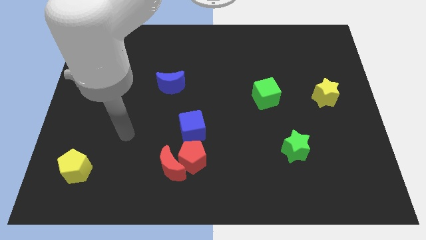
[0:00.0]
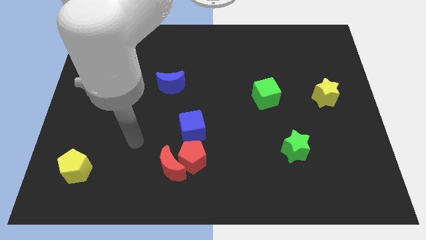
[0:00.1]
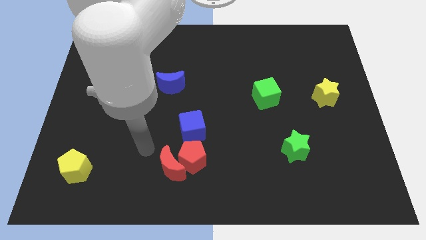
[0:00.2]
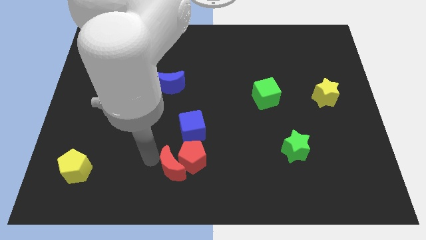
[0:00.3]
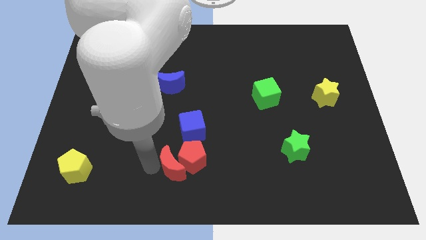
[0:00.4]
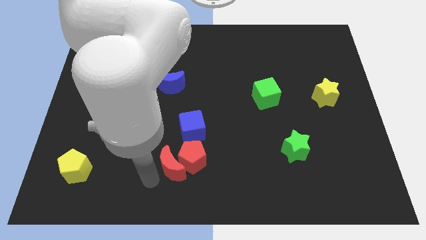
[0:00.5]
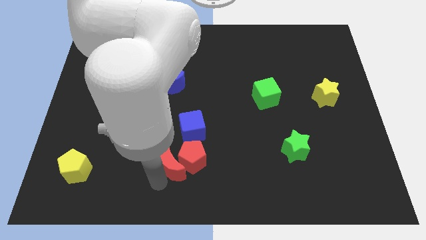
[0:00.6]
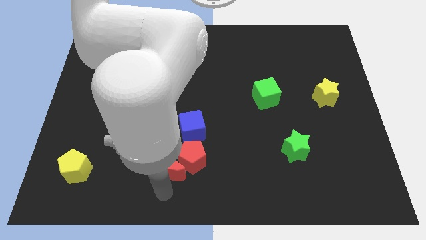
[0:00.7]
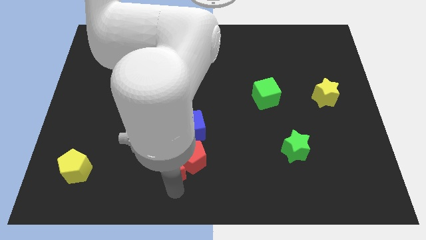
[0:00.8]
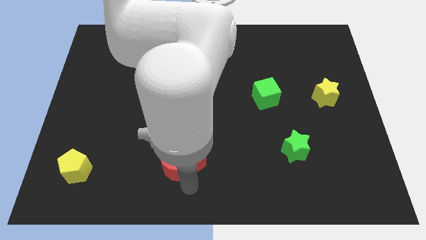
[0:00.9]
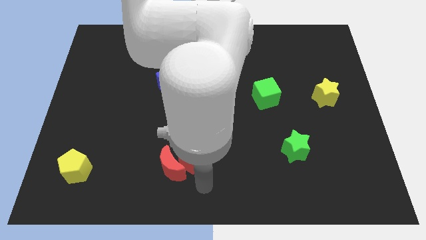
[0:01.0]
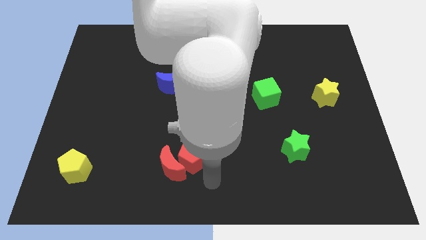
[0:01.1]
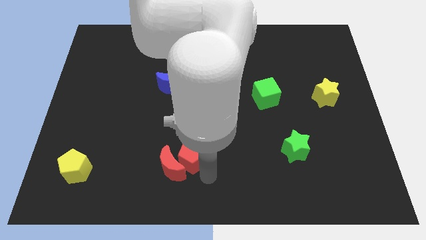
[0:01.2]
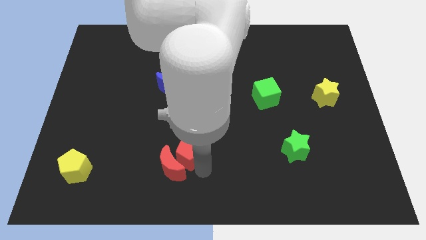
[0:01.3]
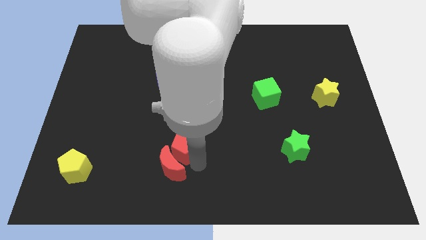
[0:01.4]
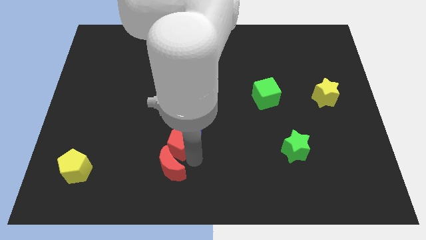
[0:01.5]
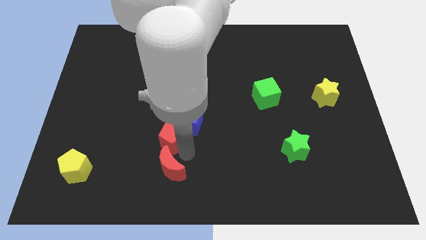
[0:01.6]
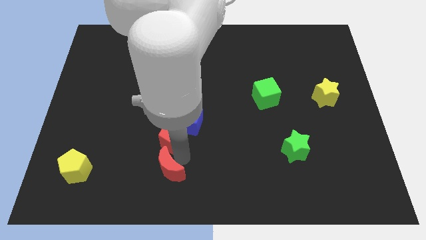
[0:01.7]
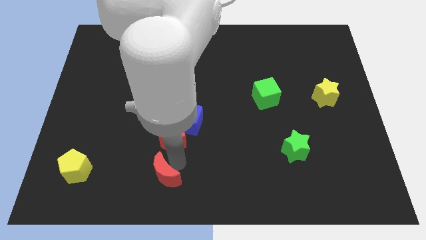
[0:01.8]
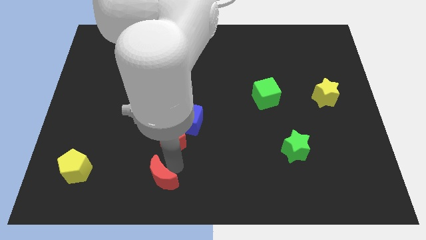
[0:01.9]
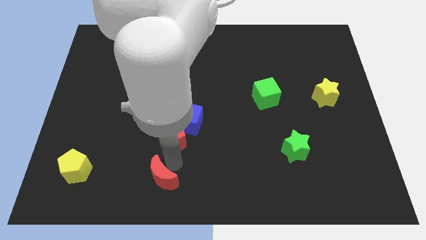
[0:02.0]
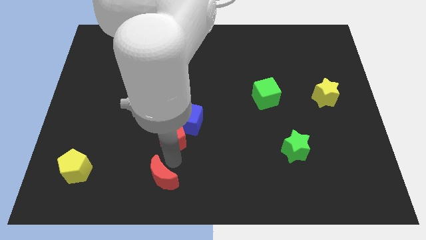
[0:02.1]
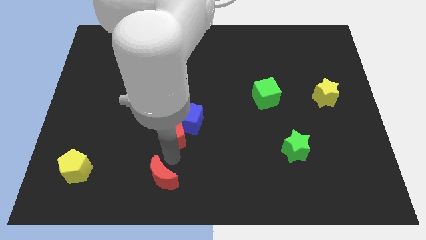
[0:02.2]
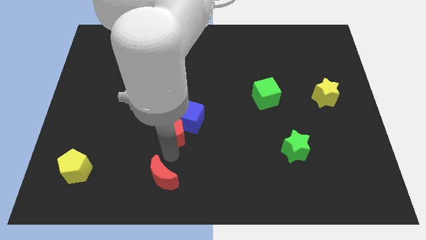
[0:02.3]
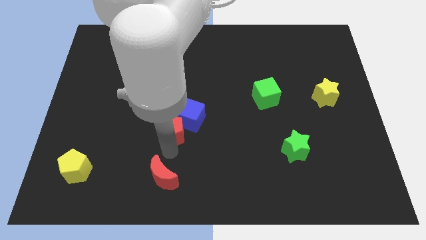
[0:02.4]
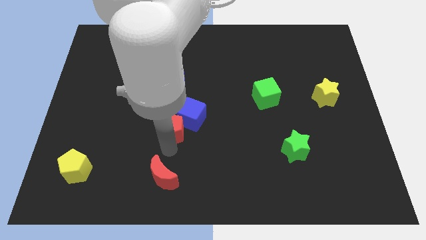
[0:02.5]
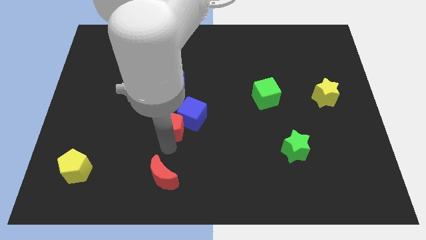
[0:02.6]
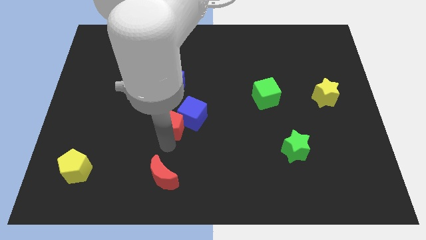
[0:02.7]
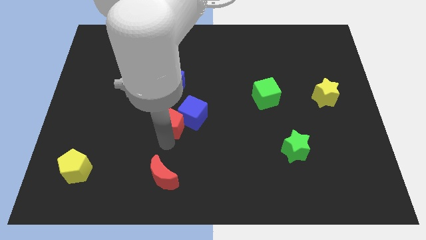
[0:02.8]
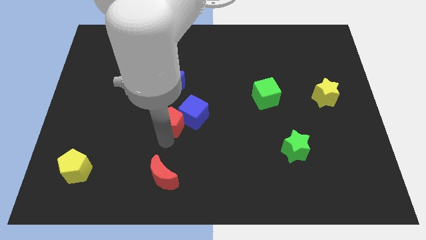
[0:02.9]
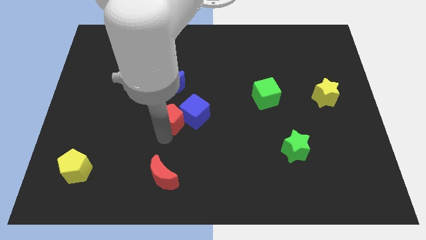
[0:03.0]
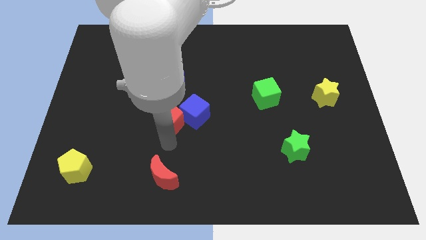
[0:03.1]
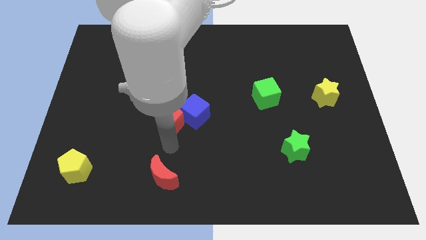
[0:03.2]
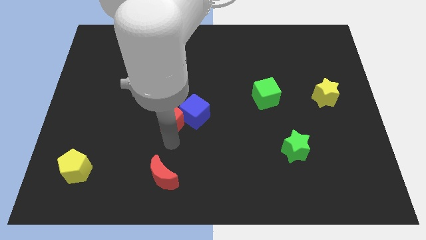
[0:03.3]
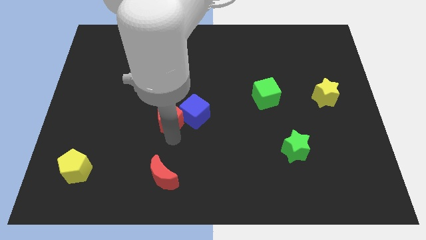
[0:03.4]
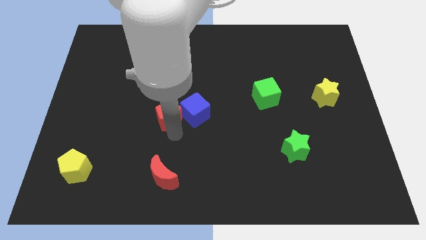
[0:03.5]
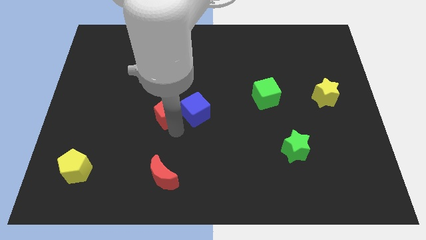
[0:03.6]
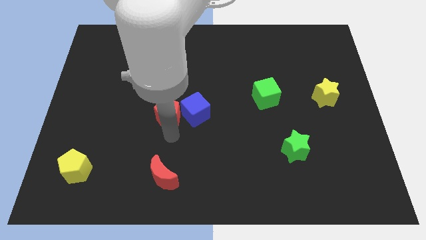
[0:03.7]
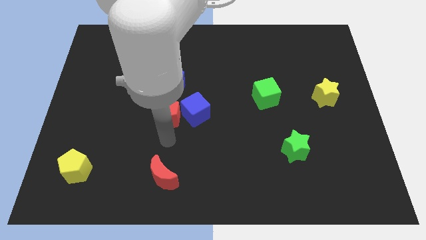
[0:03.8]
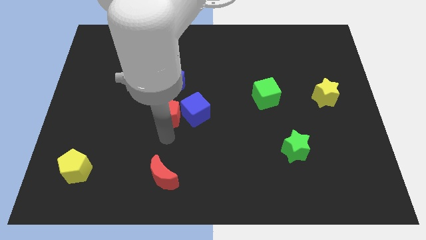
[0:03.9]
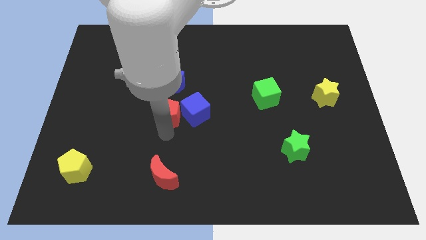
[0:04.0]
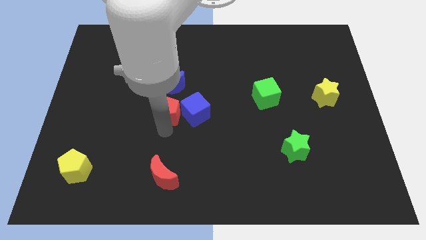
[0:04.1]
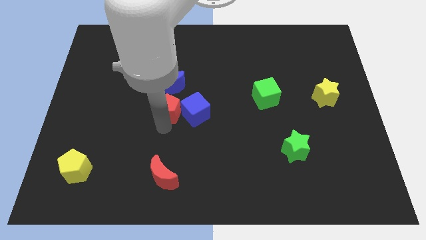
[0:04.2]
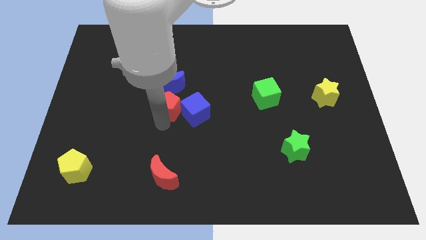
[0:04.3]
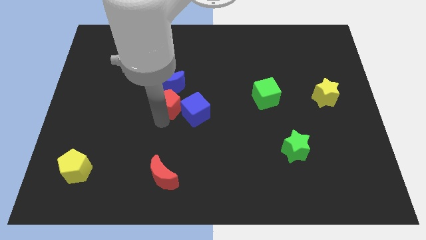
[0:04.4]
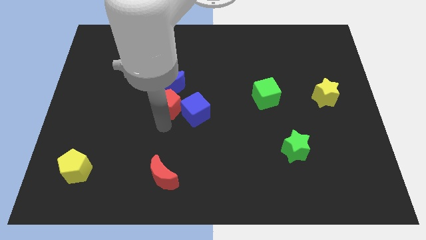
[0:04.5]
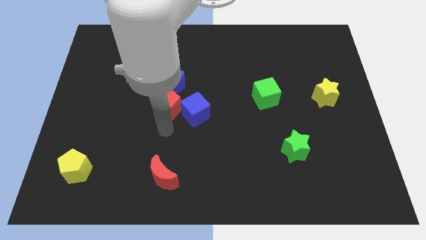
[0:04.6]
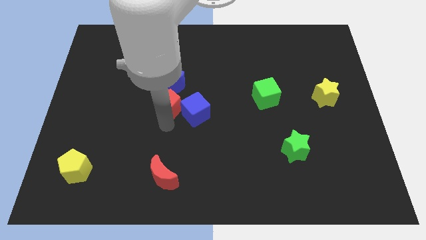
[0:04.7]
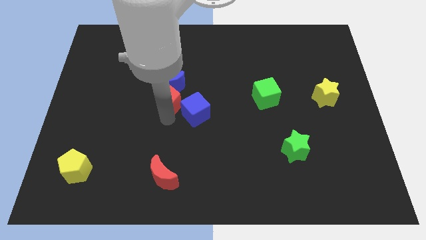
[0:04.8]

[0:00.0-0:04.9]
slide the red pentagon to the blue moon

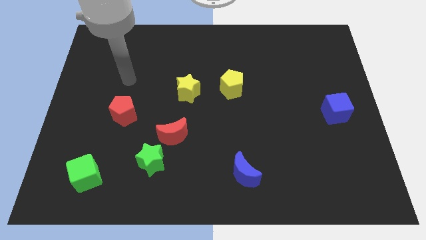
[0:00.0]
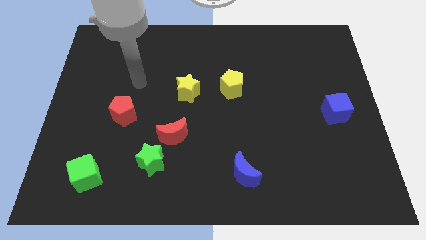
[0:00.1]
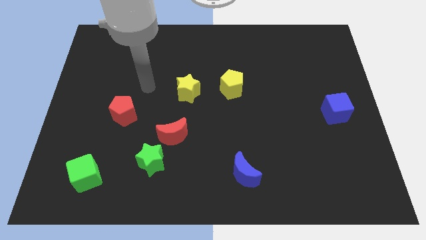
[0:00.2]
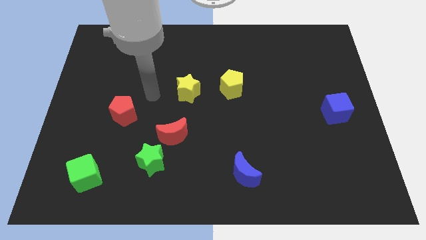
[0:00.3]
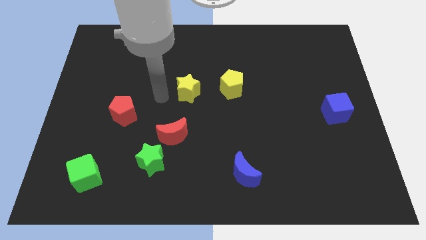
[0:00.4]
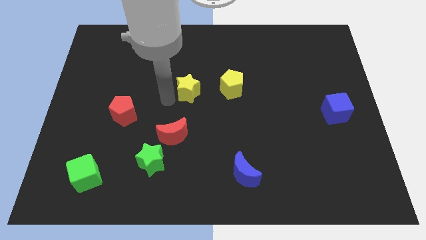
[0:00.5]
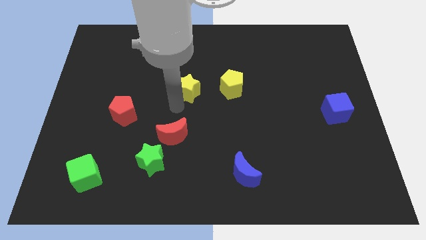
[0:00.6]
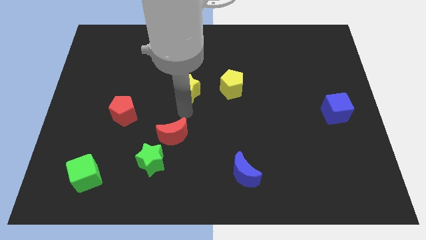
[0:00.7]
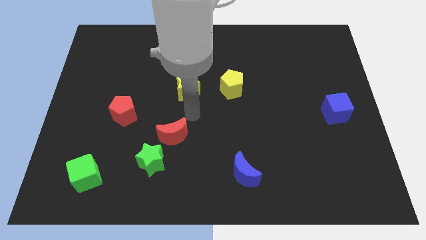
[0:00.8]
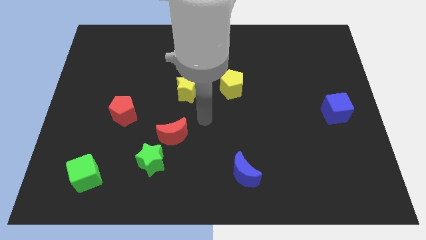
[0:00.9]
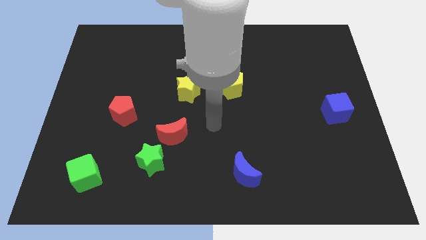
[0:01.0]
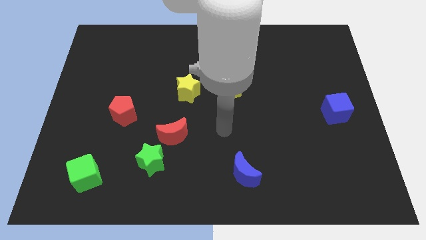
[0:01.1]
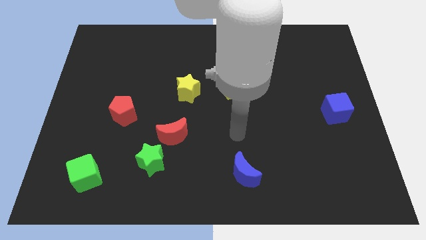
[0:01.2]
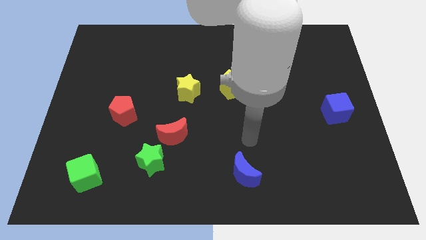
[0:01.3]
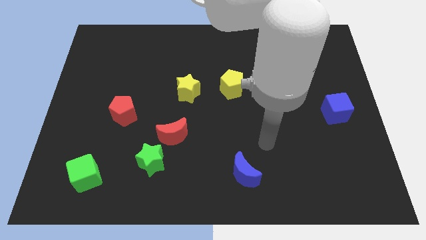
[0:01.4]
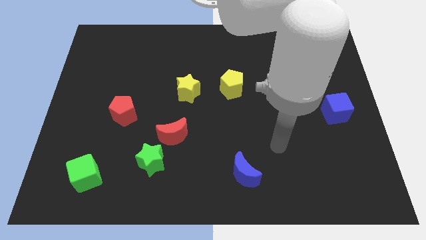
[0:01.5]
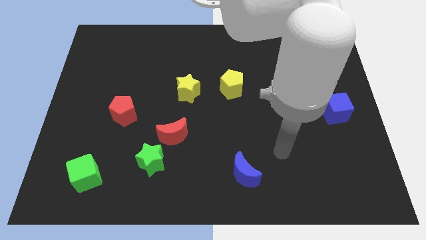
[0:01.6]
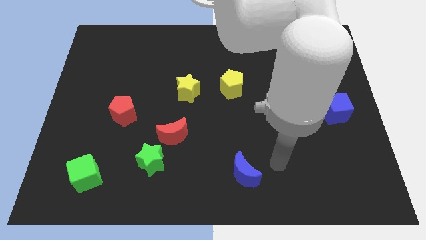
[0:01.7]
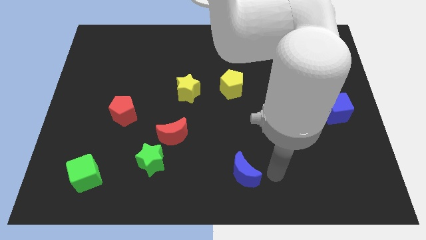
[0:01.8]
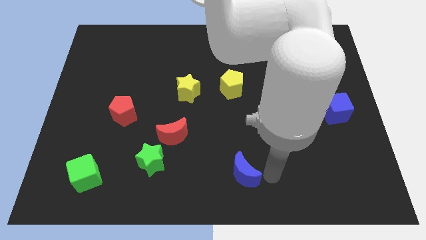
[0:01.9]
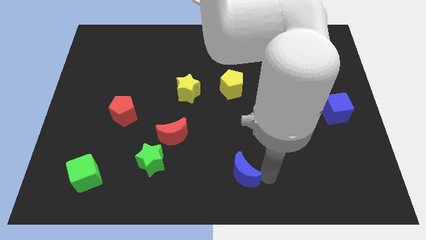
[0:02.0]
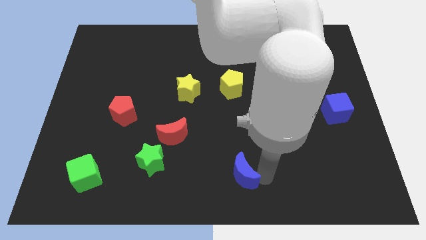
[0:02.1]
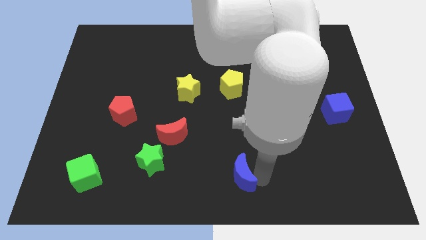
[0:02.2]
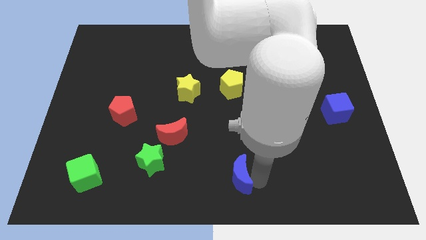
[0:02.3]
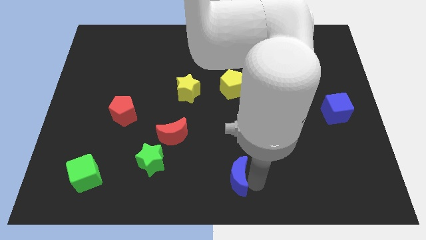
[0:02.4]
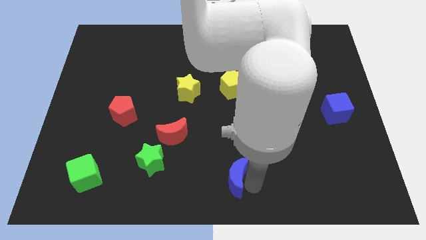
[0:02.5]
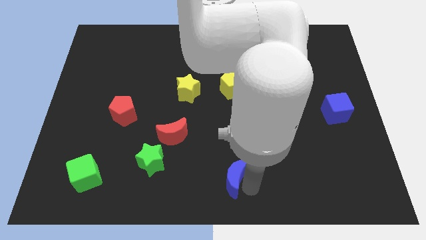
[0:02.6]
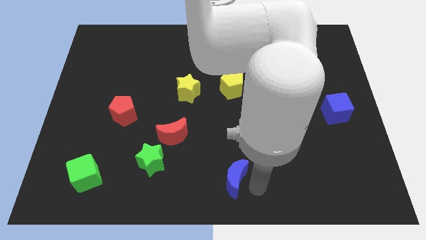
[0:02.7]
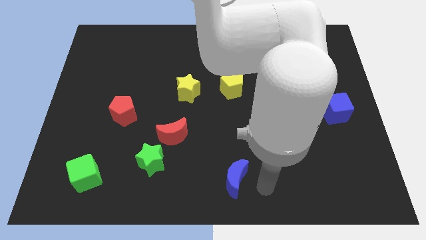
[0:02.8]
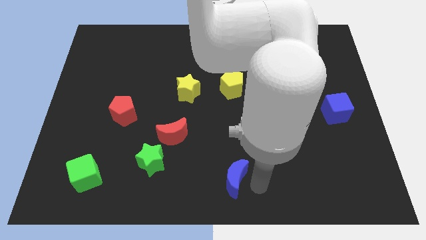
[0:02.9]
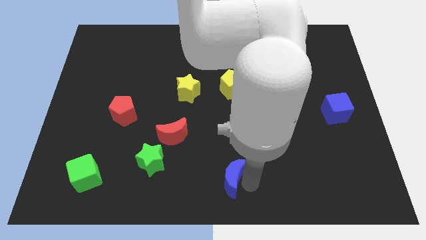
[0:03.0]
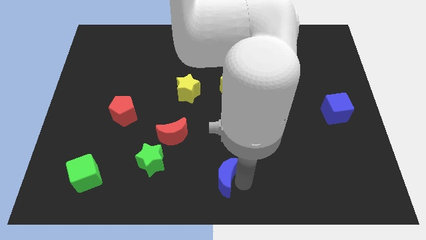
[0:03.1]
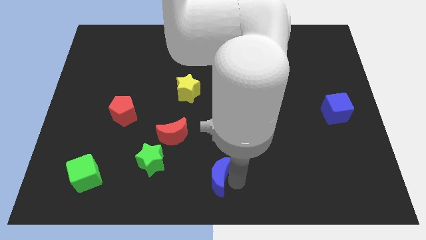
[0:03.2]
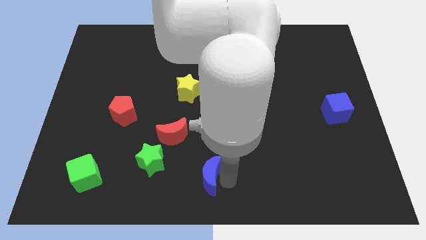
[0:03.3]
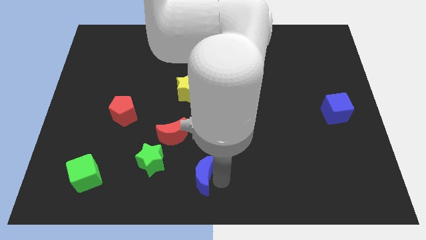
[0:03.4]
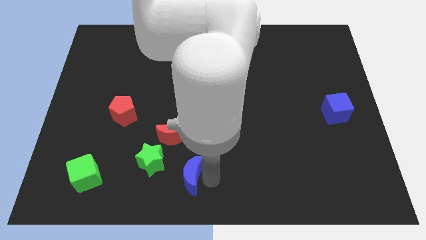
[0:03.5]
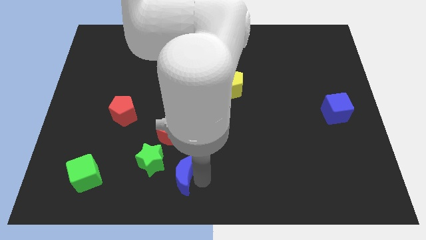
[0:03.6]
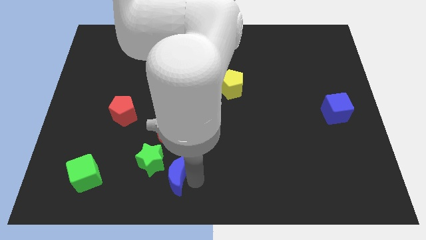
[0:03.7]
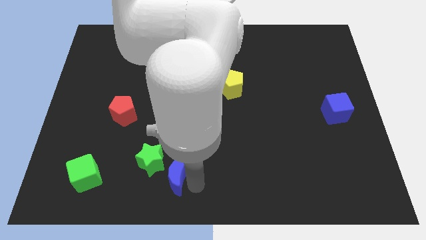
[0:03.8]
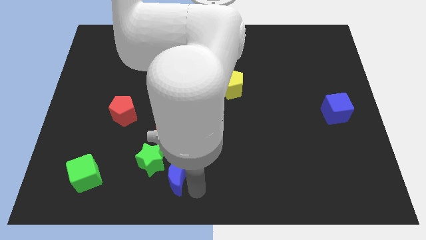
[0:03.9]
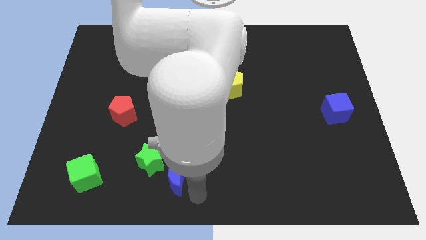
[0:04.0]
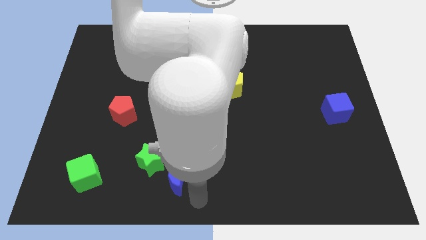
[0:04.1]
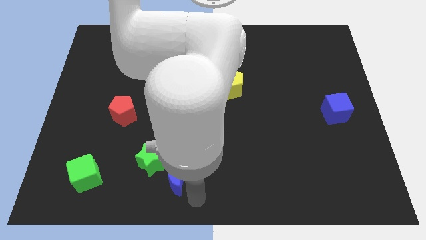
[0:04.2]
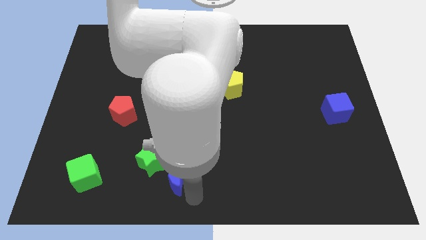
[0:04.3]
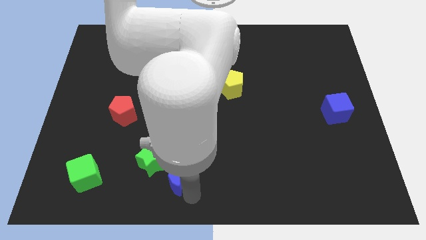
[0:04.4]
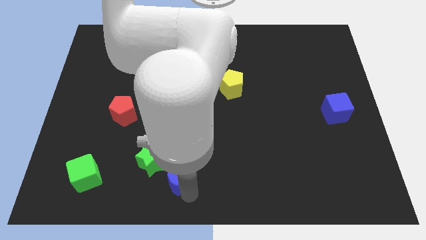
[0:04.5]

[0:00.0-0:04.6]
slide the blue moon next to the green star
